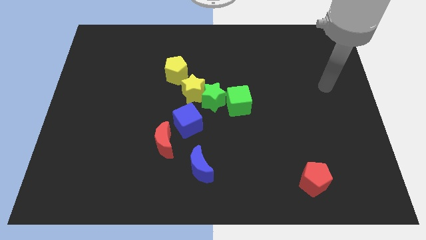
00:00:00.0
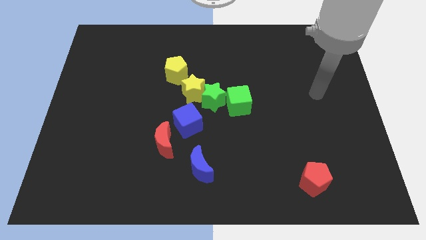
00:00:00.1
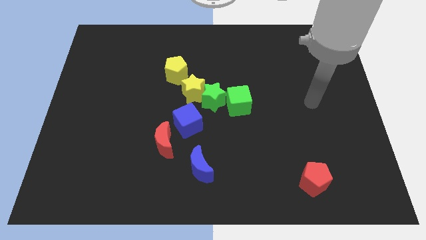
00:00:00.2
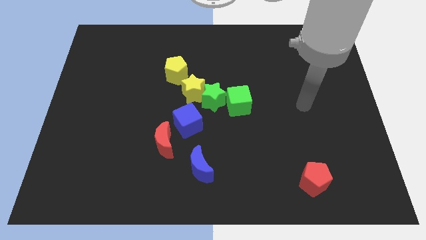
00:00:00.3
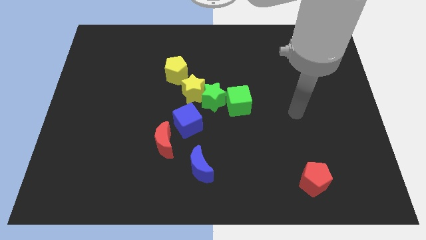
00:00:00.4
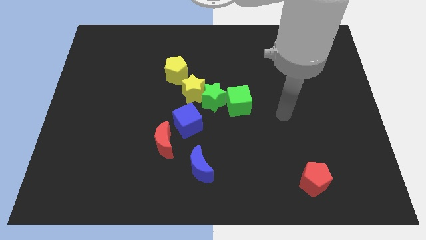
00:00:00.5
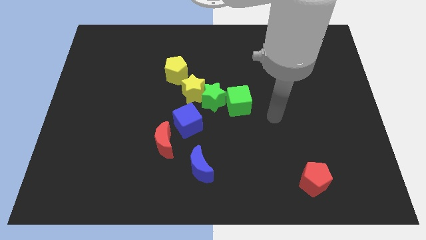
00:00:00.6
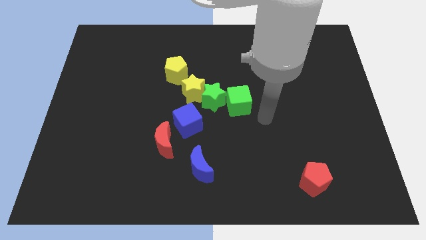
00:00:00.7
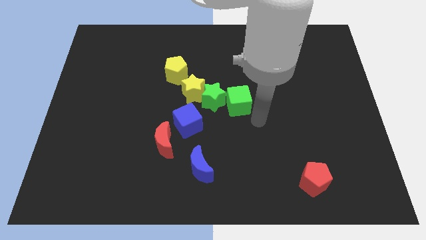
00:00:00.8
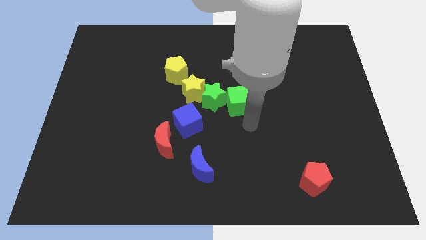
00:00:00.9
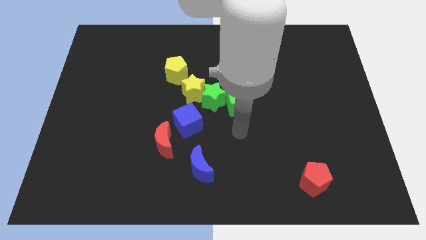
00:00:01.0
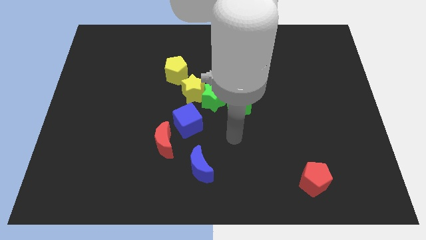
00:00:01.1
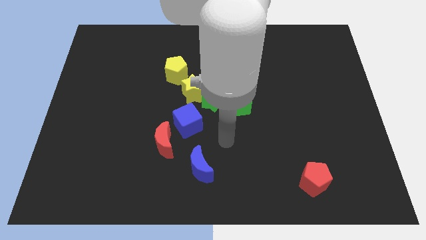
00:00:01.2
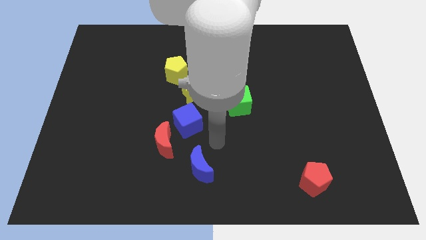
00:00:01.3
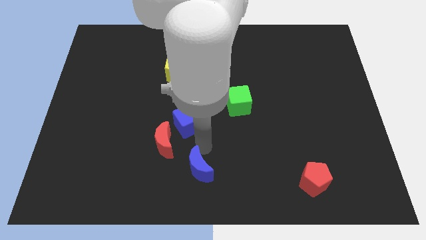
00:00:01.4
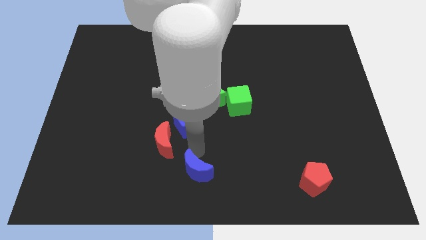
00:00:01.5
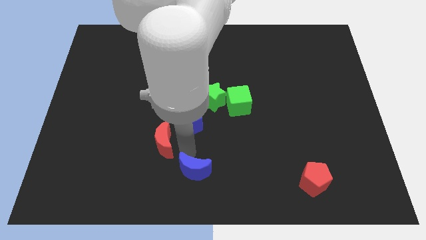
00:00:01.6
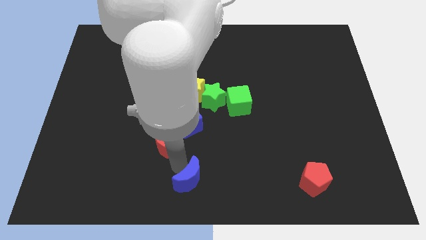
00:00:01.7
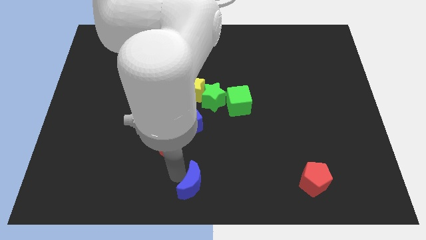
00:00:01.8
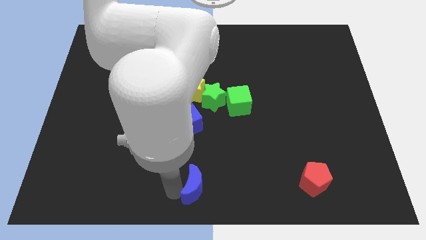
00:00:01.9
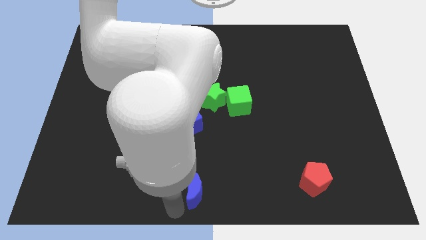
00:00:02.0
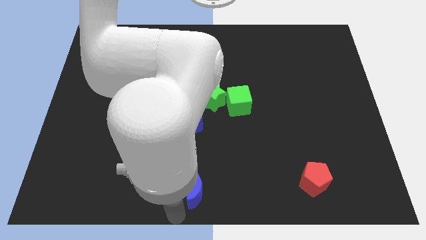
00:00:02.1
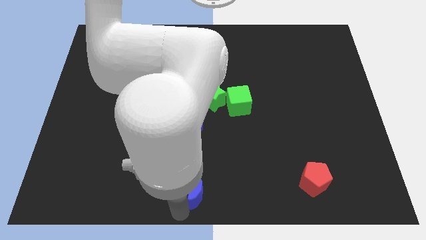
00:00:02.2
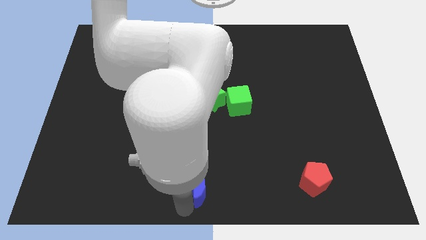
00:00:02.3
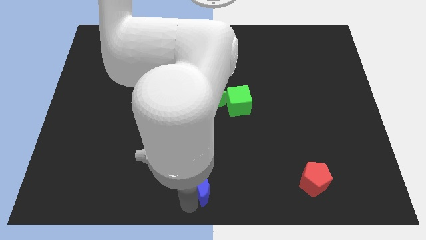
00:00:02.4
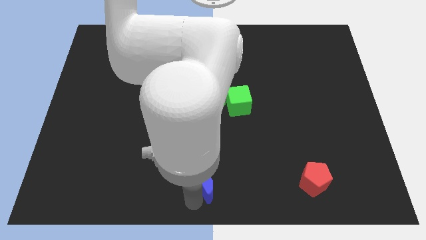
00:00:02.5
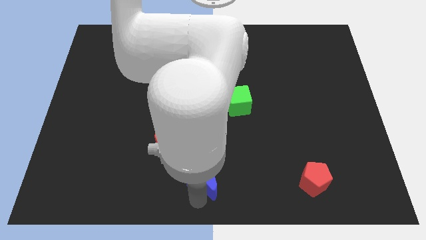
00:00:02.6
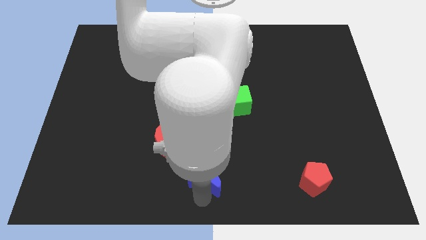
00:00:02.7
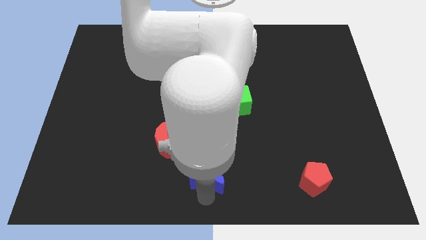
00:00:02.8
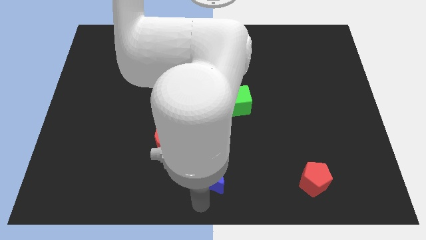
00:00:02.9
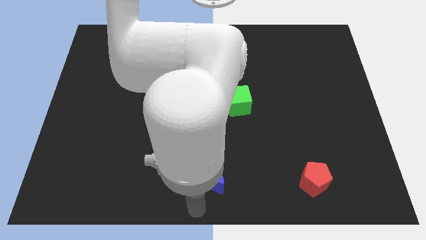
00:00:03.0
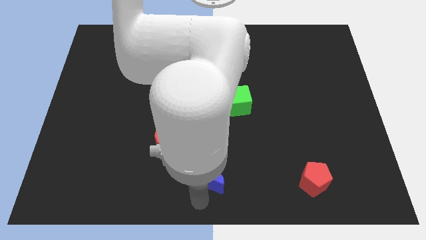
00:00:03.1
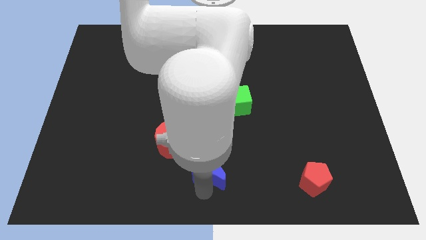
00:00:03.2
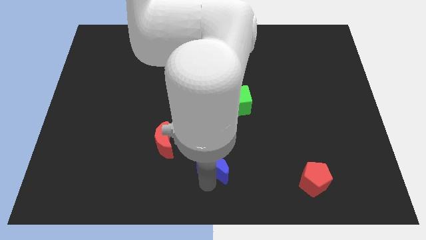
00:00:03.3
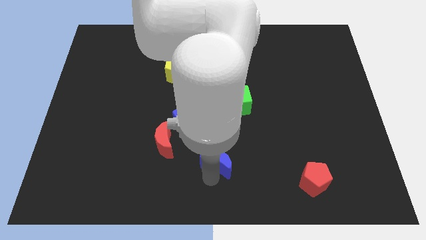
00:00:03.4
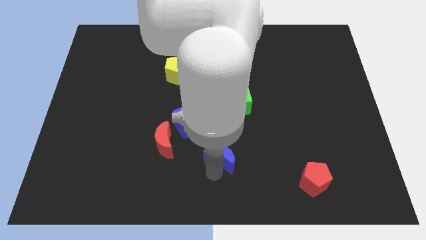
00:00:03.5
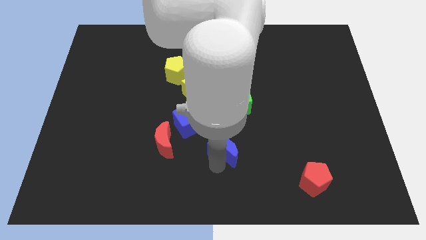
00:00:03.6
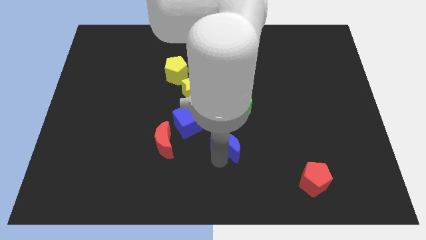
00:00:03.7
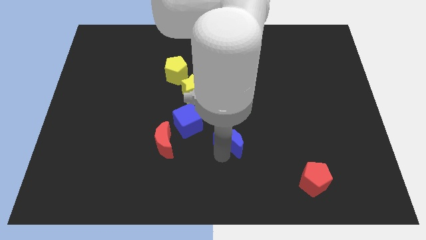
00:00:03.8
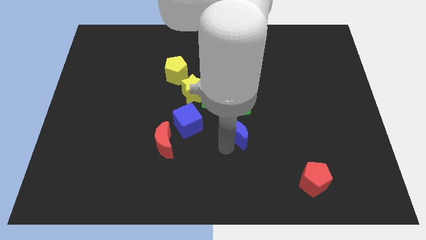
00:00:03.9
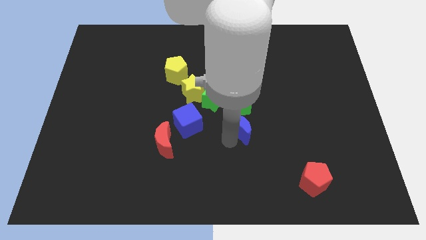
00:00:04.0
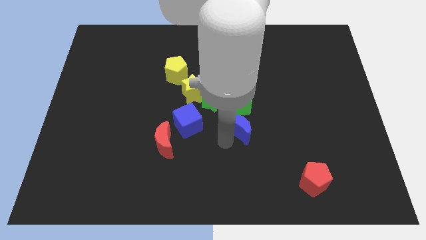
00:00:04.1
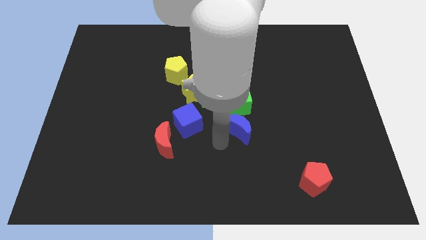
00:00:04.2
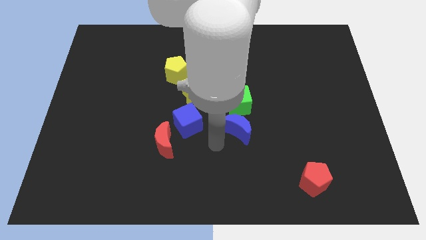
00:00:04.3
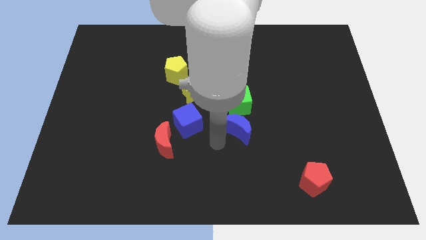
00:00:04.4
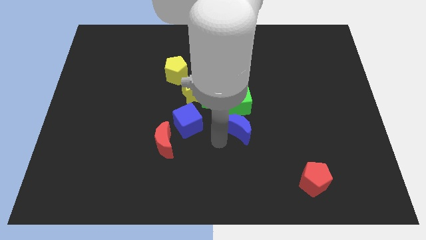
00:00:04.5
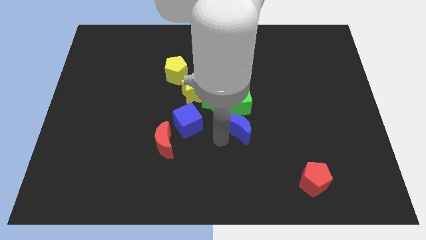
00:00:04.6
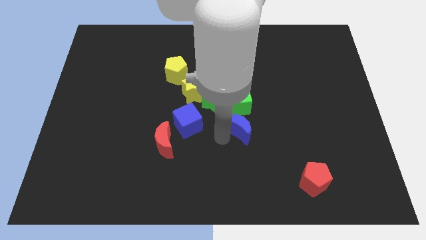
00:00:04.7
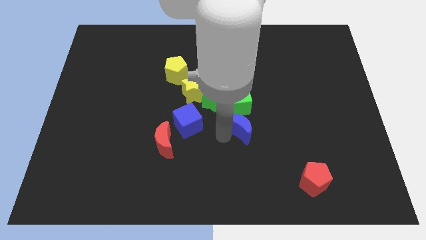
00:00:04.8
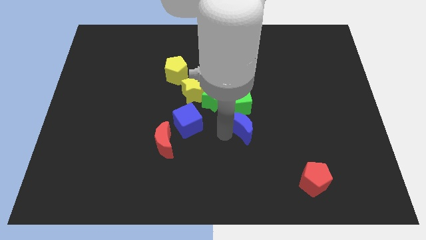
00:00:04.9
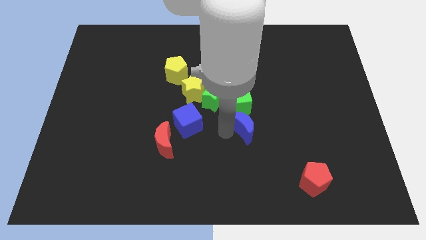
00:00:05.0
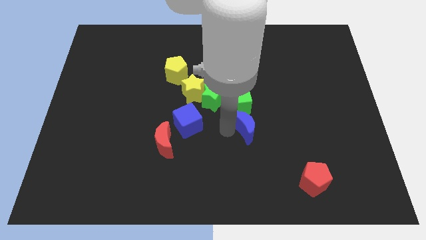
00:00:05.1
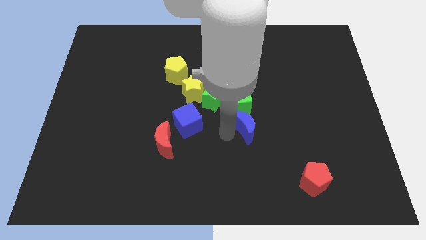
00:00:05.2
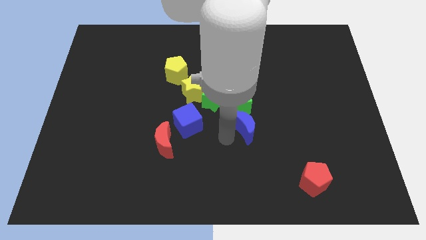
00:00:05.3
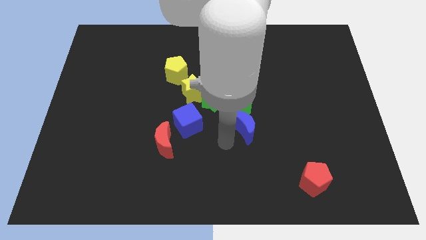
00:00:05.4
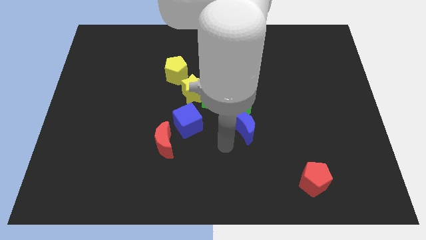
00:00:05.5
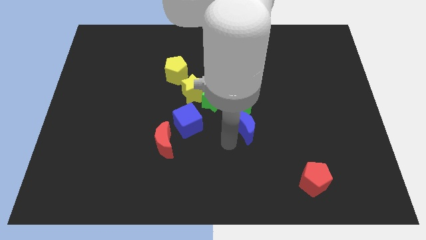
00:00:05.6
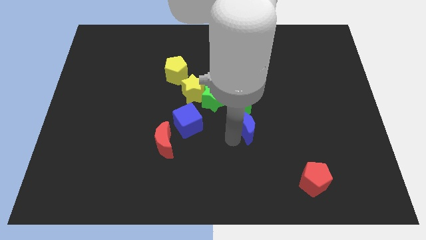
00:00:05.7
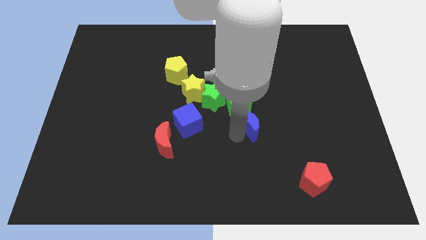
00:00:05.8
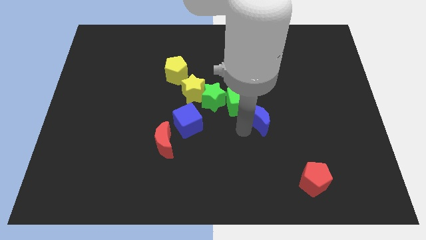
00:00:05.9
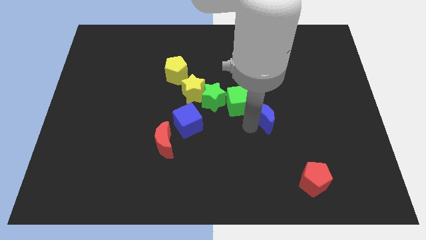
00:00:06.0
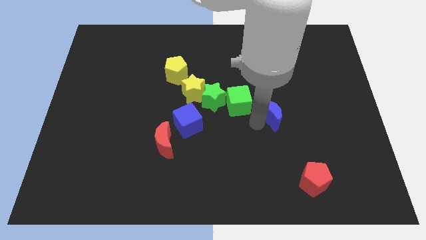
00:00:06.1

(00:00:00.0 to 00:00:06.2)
slide the blue moon diagonally up and to the right

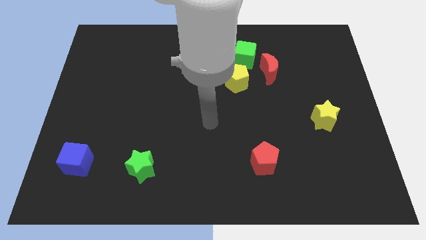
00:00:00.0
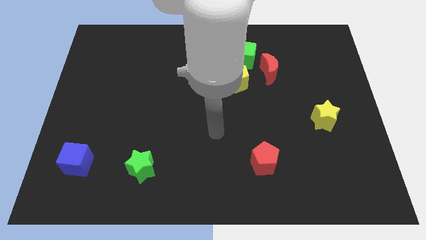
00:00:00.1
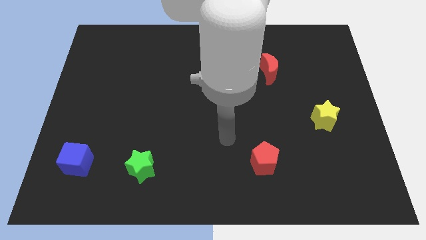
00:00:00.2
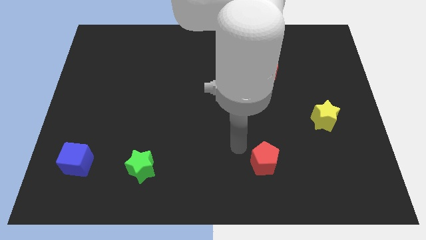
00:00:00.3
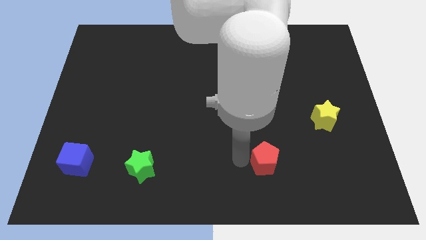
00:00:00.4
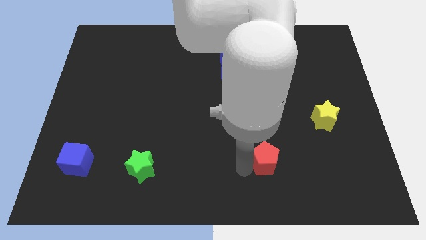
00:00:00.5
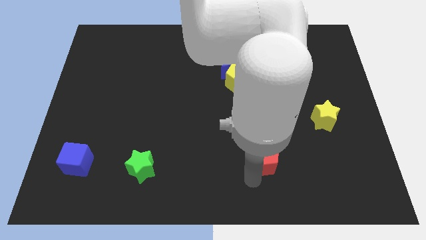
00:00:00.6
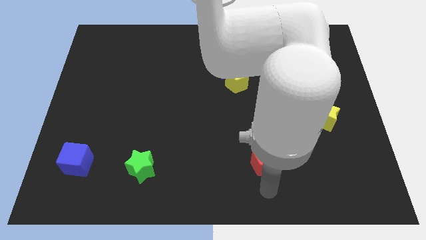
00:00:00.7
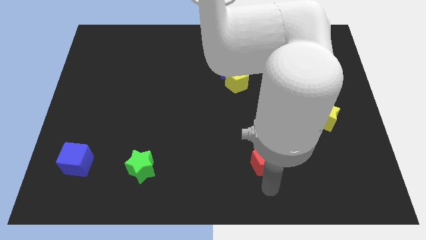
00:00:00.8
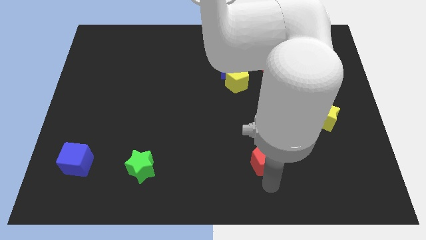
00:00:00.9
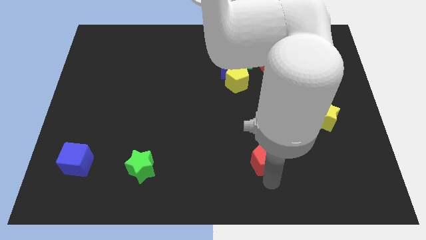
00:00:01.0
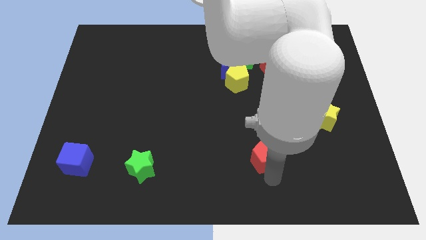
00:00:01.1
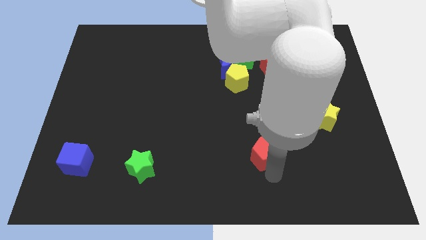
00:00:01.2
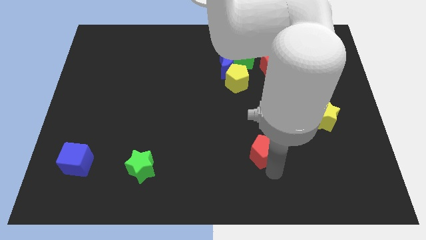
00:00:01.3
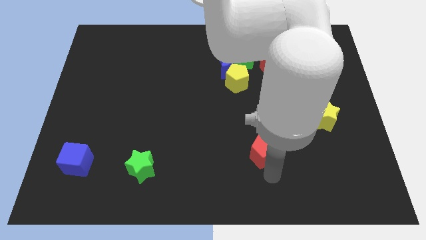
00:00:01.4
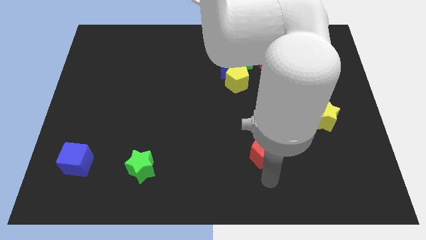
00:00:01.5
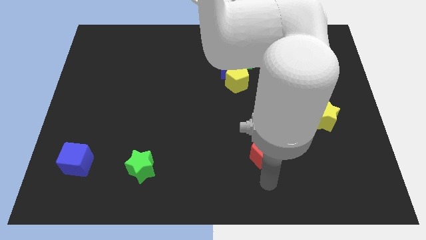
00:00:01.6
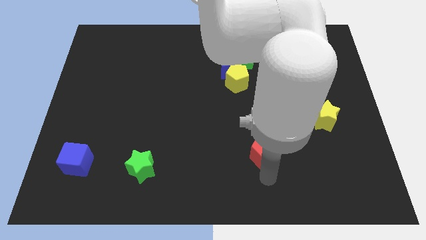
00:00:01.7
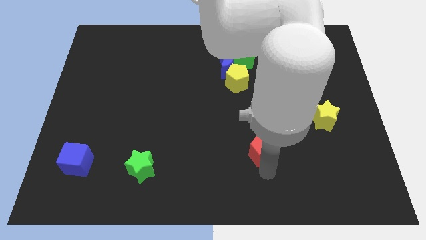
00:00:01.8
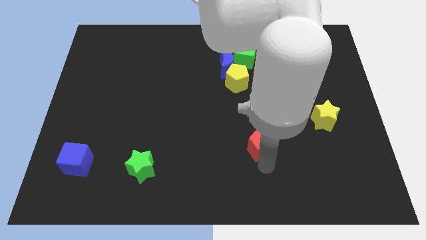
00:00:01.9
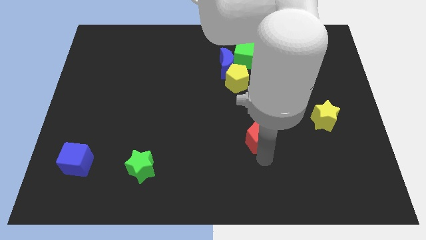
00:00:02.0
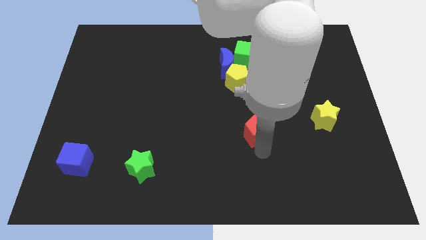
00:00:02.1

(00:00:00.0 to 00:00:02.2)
move the red pentagon a bit up
